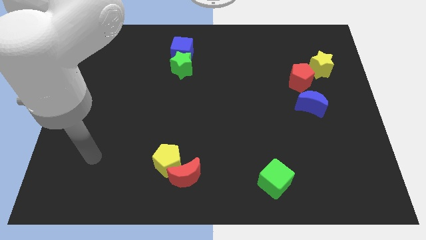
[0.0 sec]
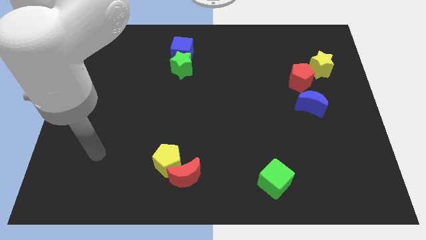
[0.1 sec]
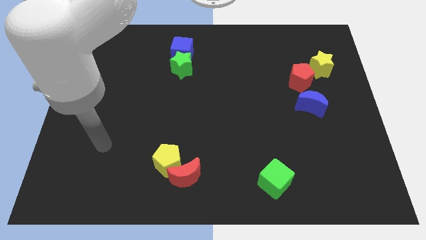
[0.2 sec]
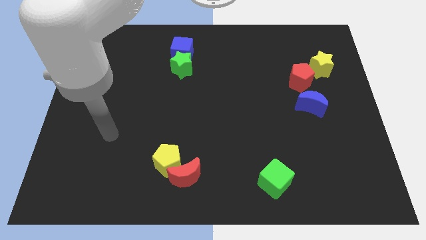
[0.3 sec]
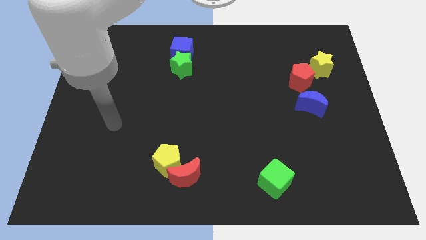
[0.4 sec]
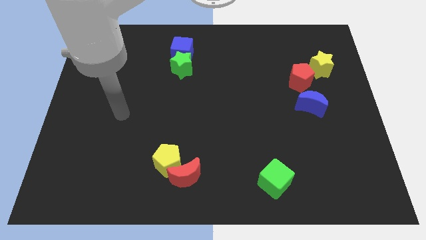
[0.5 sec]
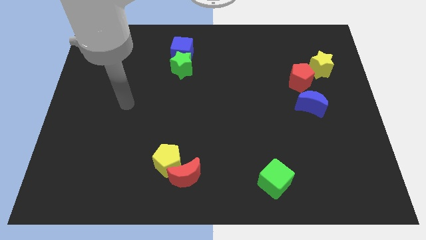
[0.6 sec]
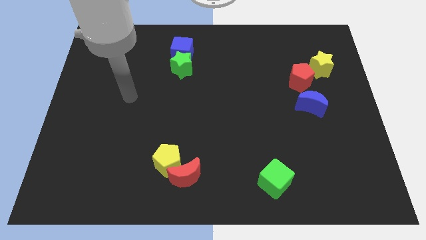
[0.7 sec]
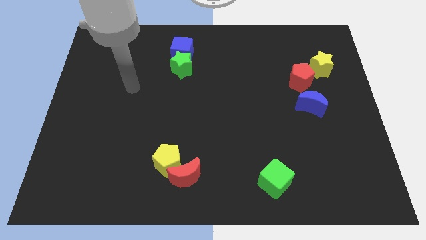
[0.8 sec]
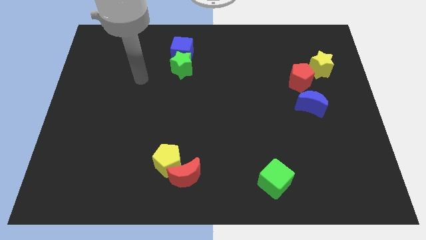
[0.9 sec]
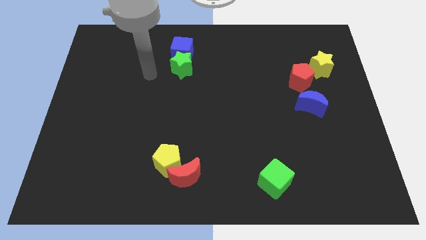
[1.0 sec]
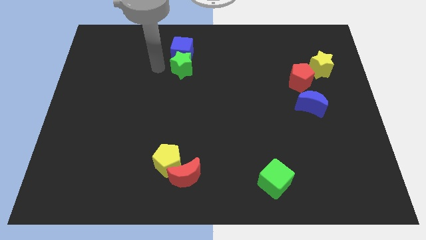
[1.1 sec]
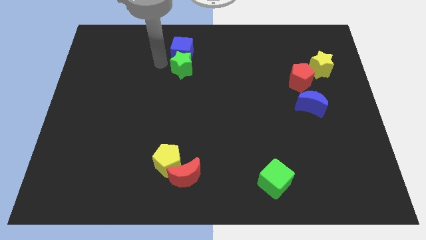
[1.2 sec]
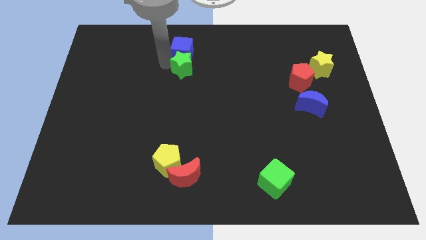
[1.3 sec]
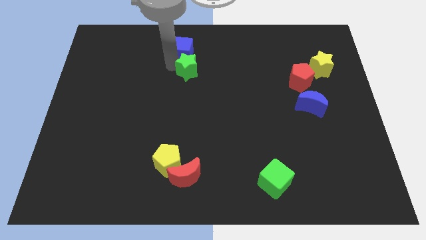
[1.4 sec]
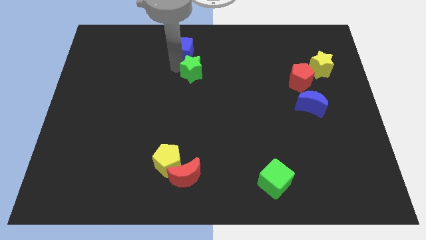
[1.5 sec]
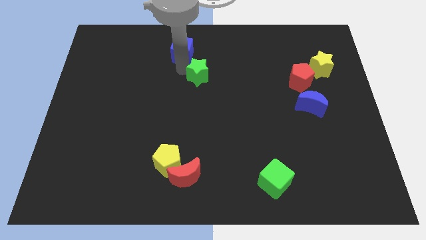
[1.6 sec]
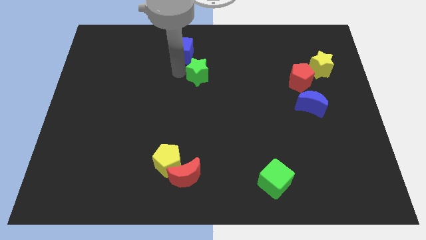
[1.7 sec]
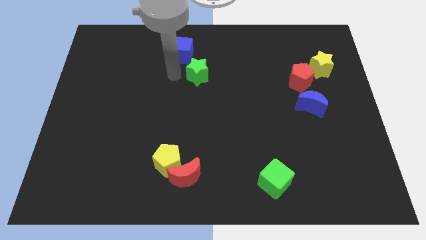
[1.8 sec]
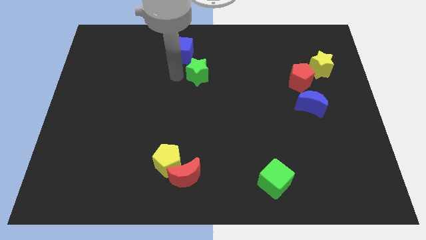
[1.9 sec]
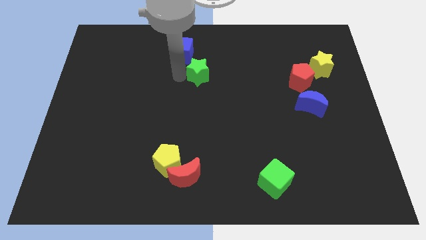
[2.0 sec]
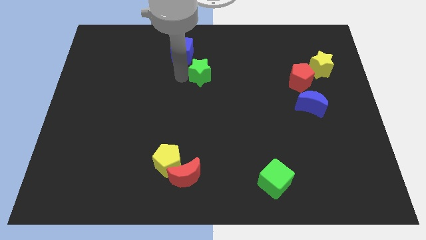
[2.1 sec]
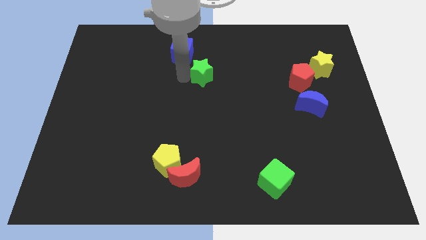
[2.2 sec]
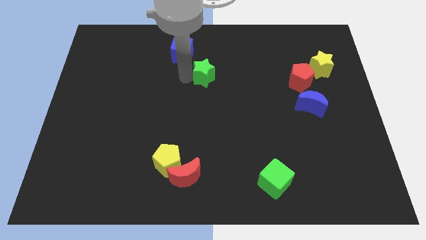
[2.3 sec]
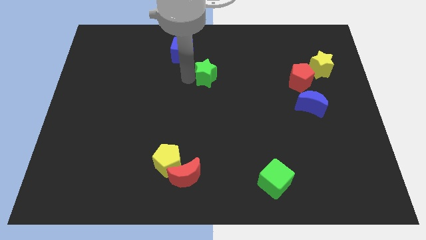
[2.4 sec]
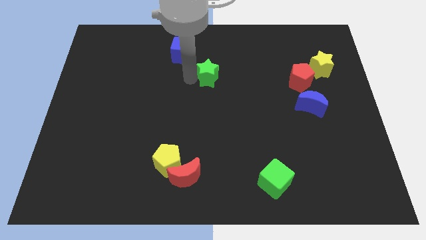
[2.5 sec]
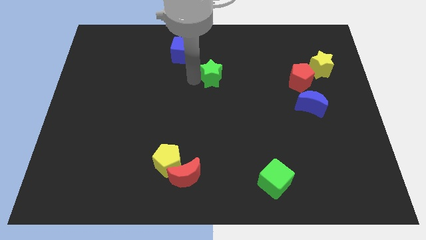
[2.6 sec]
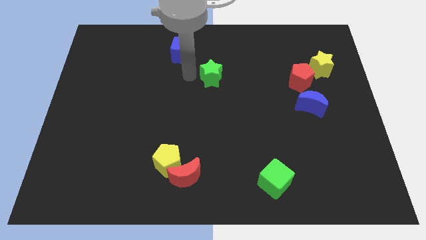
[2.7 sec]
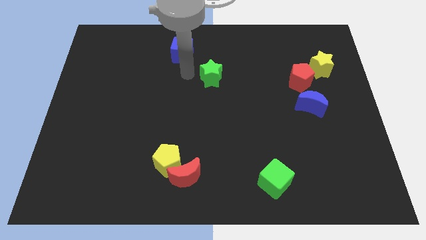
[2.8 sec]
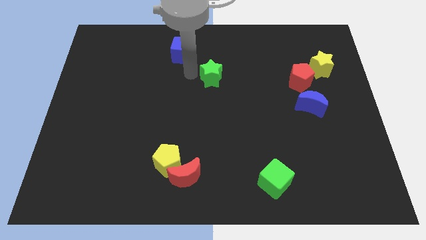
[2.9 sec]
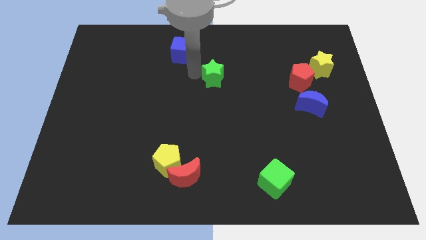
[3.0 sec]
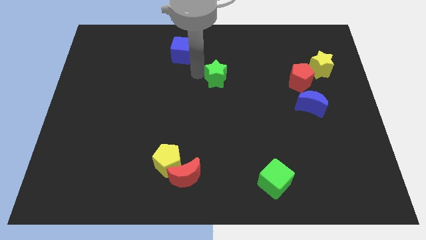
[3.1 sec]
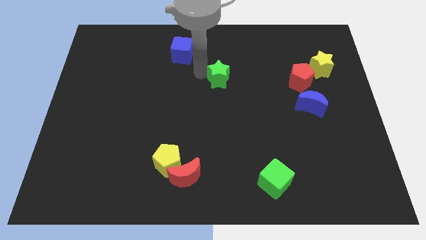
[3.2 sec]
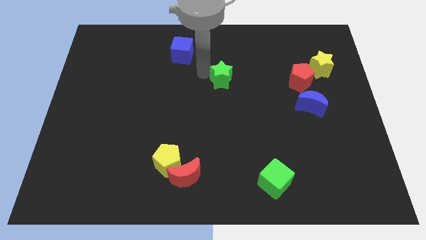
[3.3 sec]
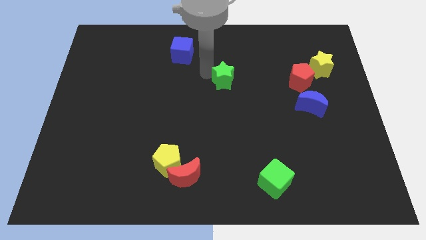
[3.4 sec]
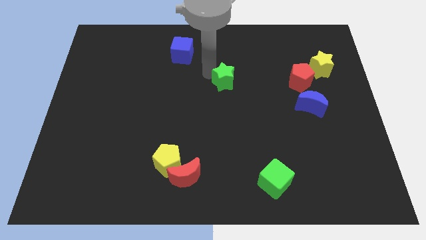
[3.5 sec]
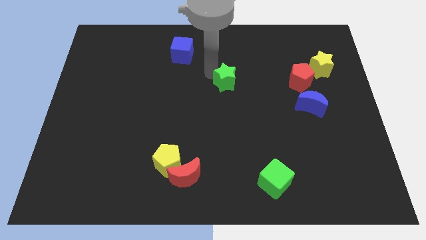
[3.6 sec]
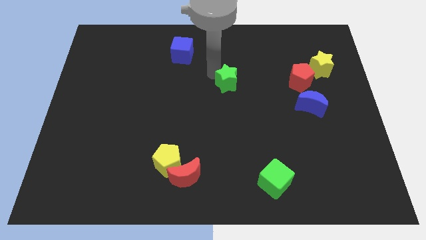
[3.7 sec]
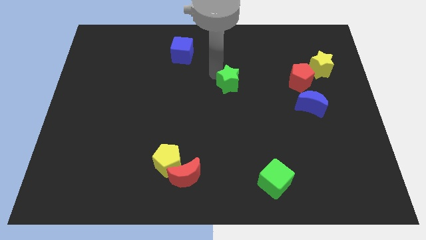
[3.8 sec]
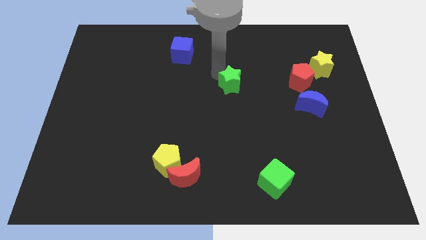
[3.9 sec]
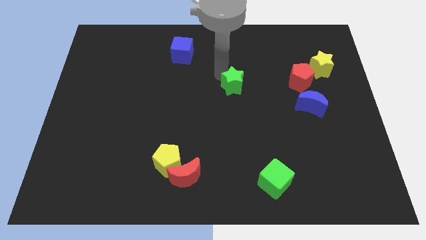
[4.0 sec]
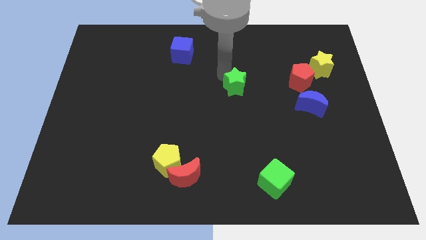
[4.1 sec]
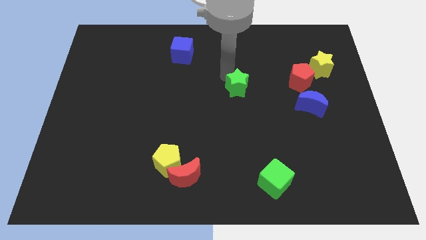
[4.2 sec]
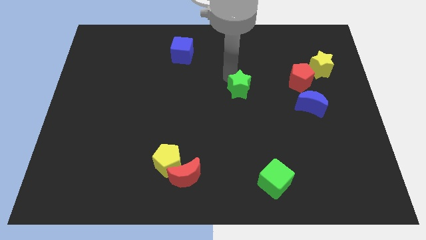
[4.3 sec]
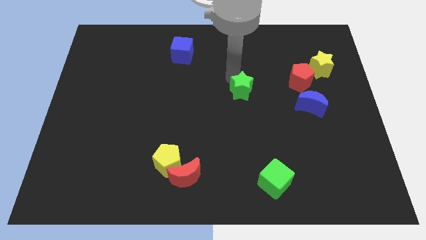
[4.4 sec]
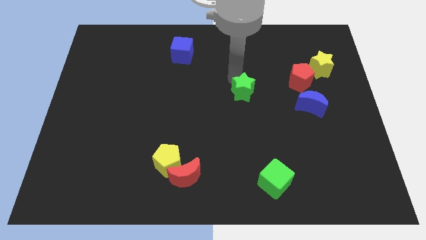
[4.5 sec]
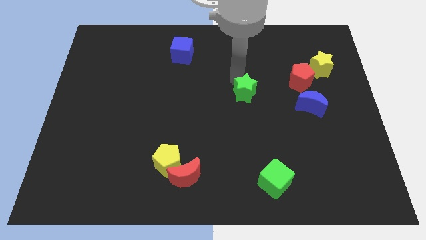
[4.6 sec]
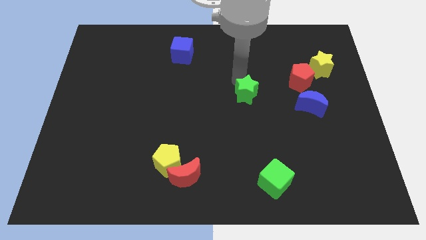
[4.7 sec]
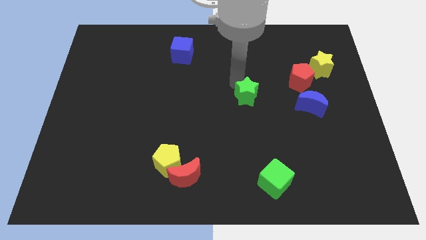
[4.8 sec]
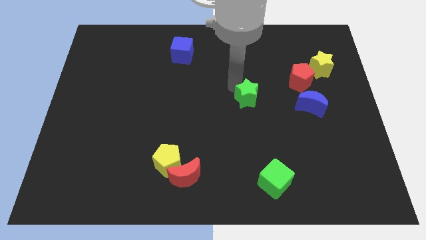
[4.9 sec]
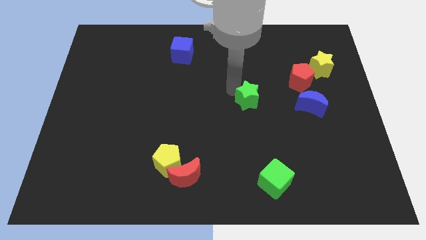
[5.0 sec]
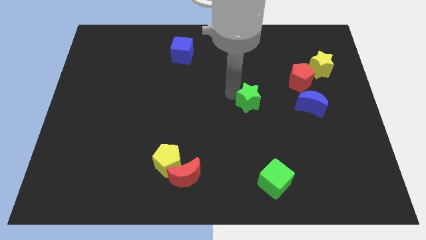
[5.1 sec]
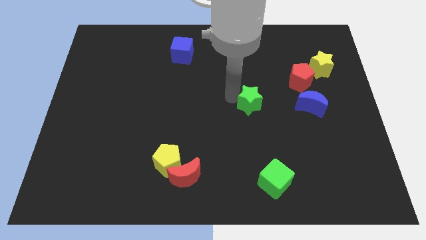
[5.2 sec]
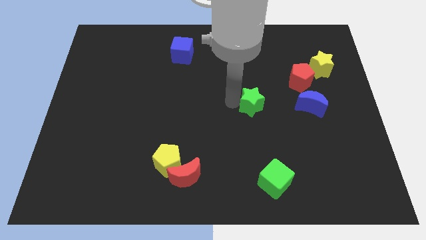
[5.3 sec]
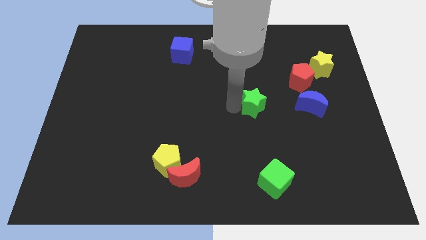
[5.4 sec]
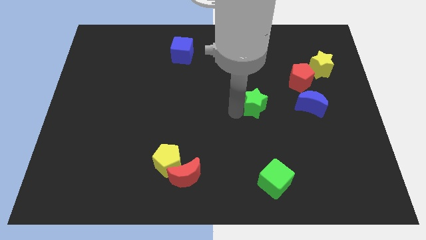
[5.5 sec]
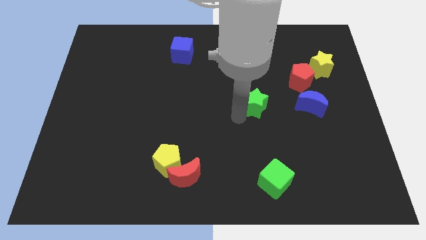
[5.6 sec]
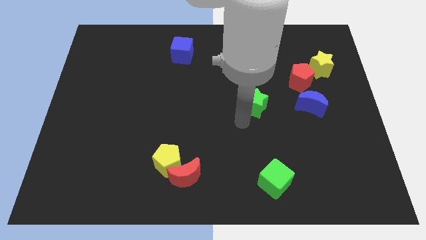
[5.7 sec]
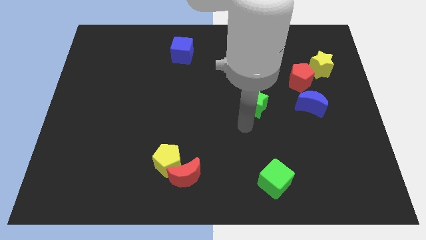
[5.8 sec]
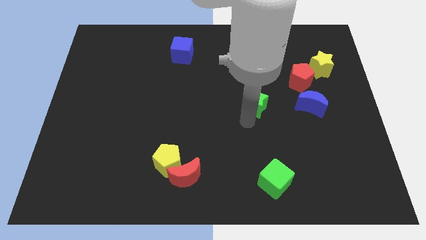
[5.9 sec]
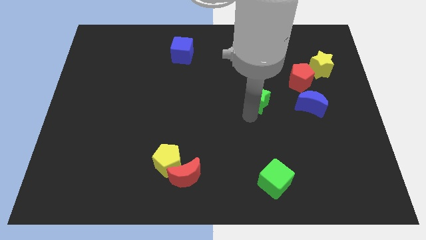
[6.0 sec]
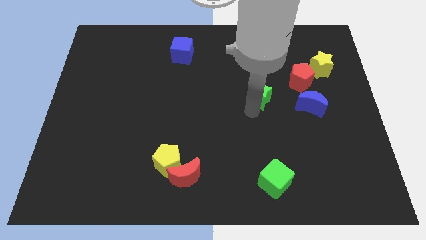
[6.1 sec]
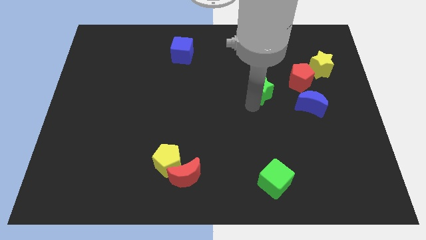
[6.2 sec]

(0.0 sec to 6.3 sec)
push the green star diagonally down and to the left of the red pentagon
